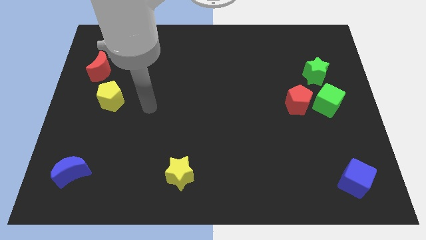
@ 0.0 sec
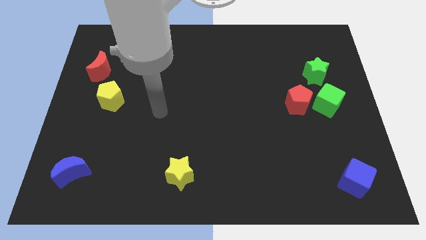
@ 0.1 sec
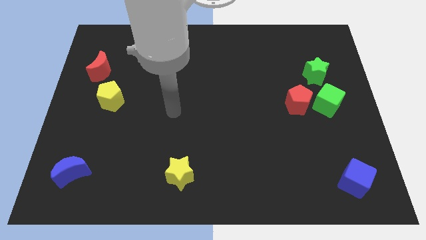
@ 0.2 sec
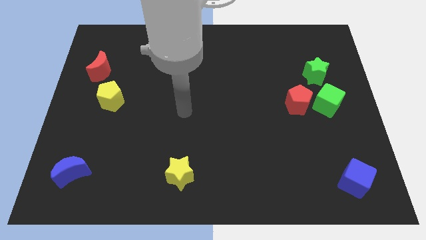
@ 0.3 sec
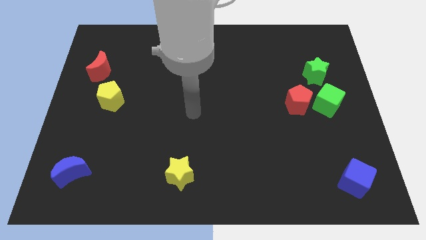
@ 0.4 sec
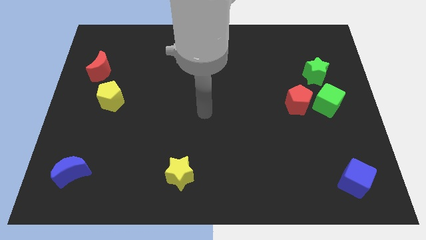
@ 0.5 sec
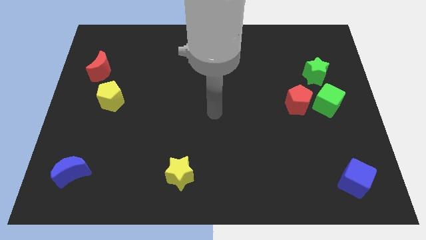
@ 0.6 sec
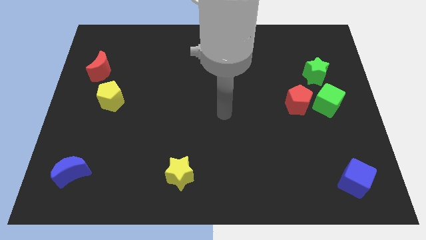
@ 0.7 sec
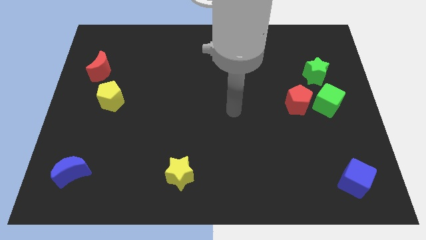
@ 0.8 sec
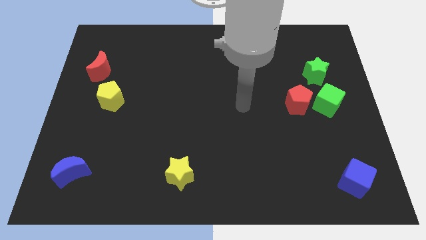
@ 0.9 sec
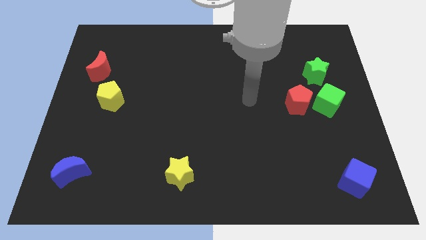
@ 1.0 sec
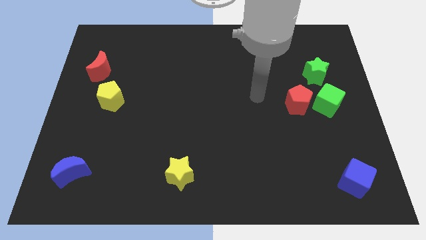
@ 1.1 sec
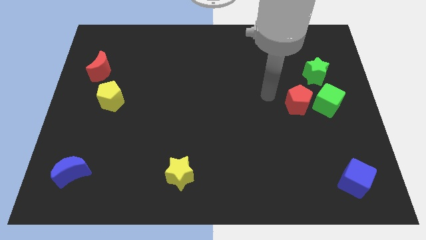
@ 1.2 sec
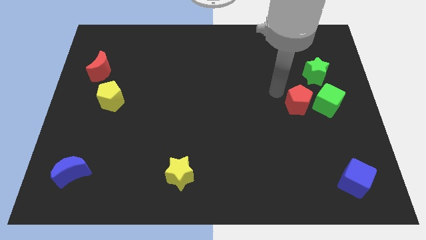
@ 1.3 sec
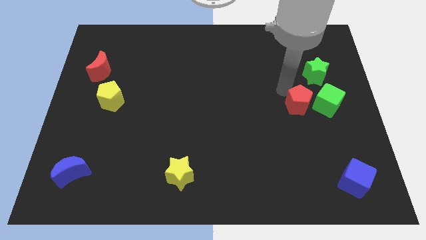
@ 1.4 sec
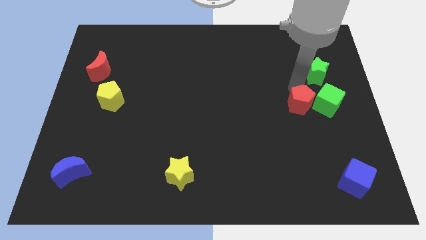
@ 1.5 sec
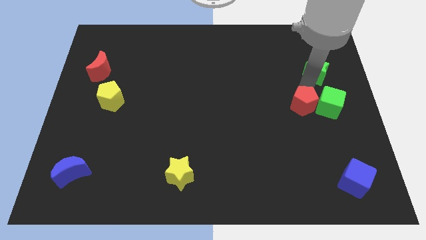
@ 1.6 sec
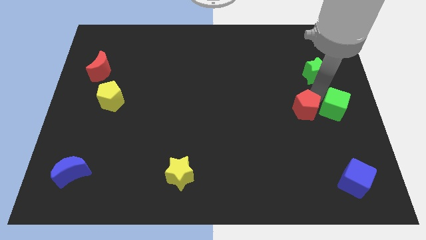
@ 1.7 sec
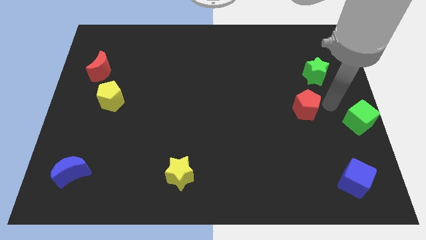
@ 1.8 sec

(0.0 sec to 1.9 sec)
move the red pentagon away from the green cube

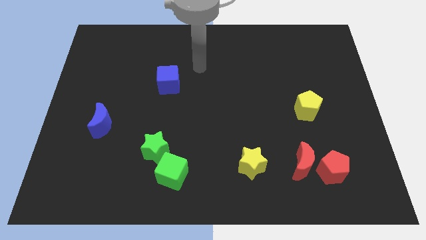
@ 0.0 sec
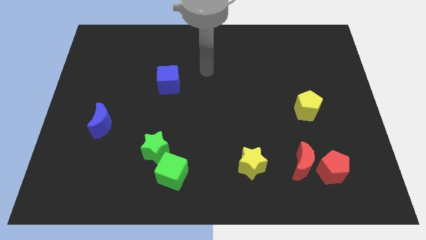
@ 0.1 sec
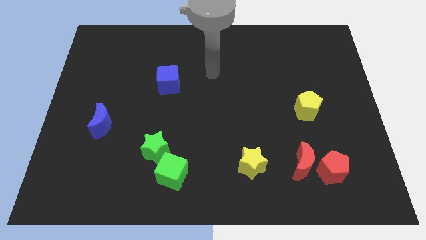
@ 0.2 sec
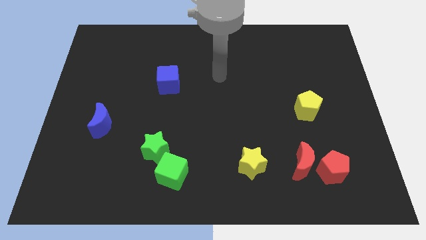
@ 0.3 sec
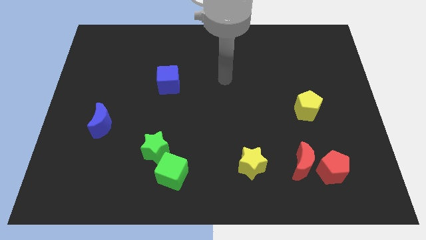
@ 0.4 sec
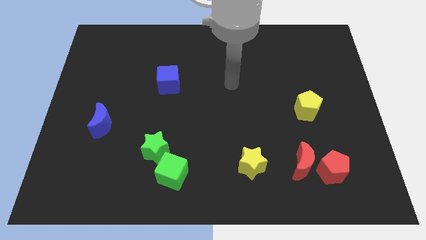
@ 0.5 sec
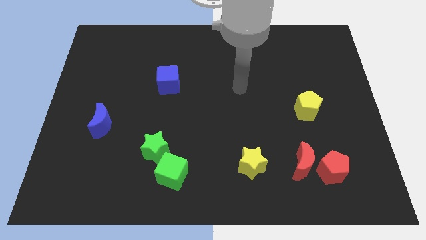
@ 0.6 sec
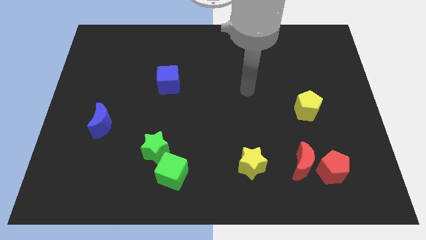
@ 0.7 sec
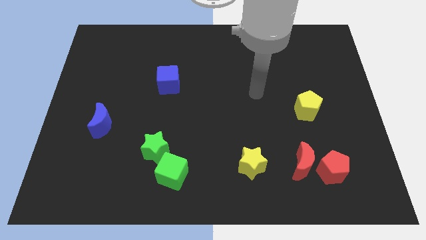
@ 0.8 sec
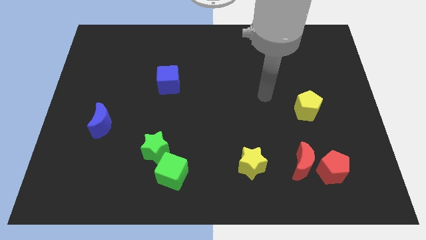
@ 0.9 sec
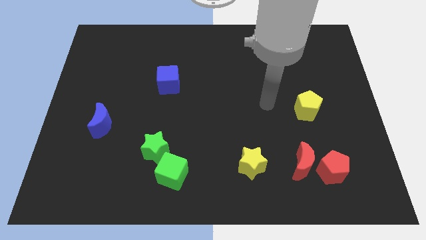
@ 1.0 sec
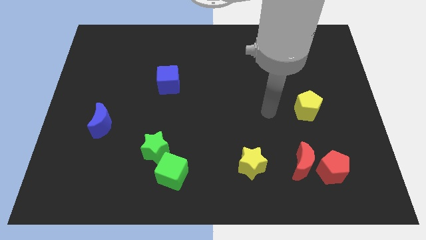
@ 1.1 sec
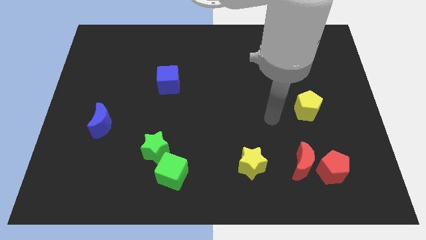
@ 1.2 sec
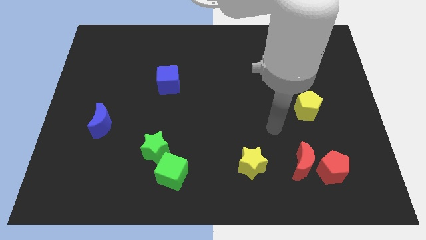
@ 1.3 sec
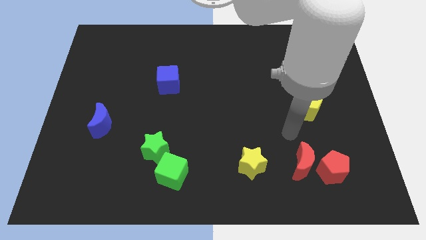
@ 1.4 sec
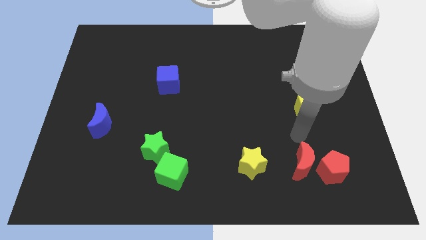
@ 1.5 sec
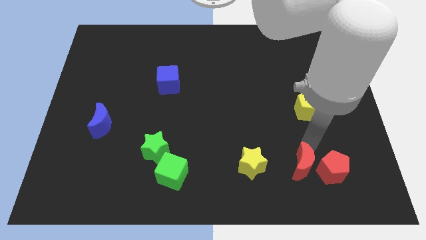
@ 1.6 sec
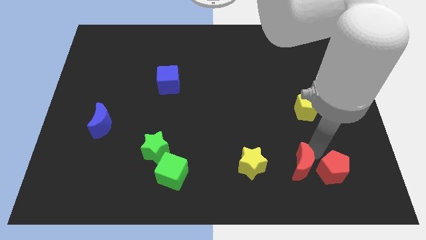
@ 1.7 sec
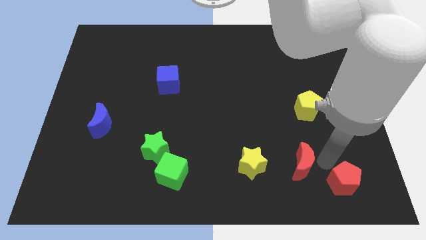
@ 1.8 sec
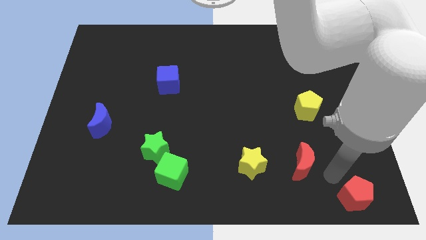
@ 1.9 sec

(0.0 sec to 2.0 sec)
move the red moon away from the red pentagon

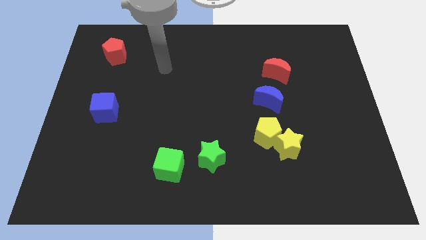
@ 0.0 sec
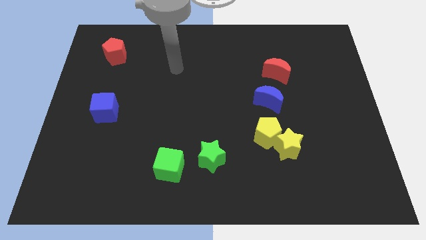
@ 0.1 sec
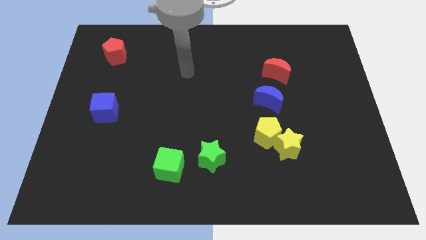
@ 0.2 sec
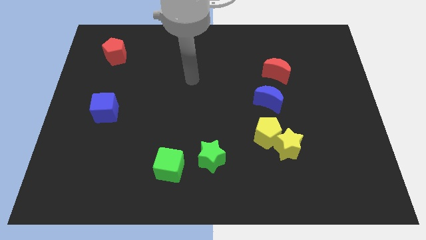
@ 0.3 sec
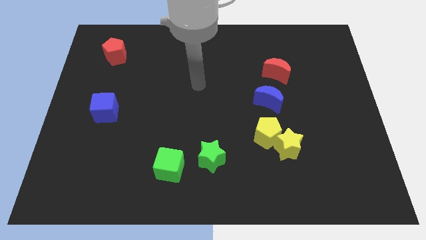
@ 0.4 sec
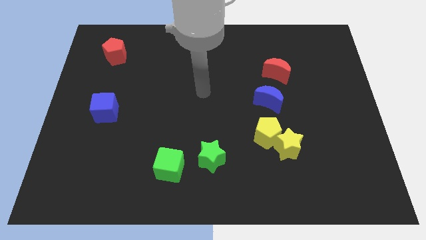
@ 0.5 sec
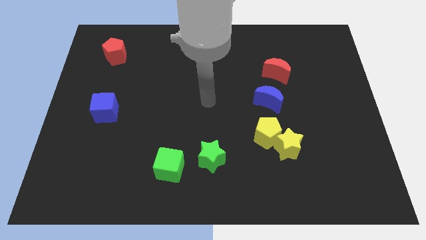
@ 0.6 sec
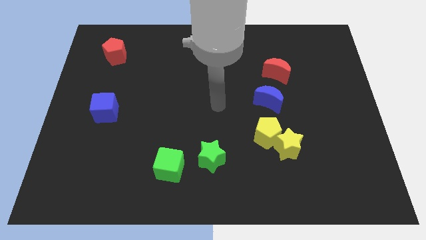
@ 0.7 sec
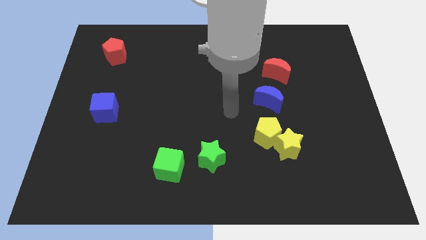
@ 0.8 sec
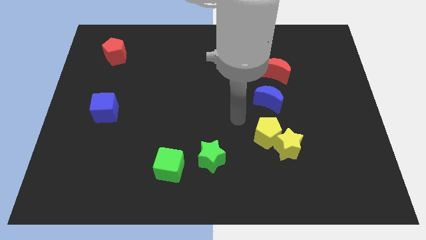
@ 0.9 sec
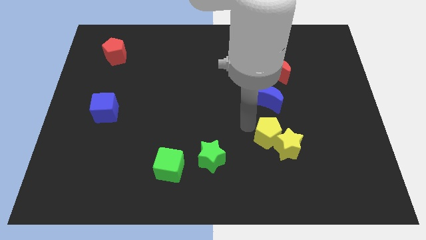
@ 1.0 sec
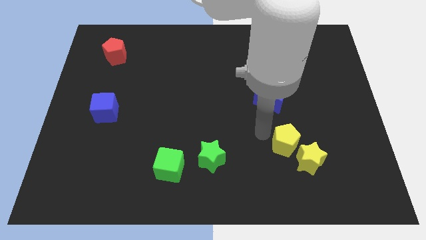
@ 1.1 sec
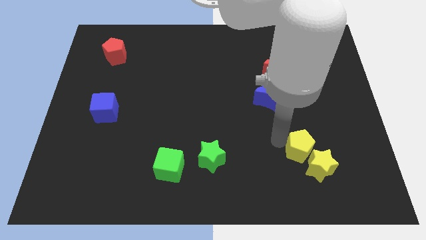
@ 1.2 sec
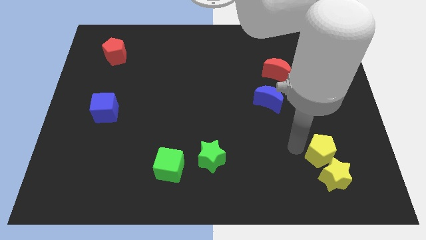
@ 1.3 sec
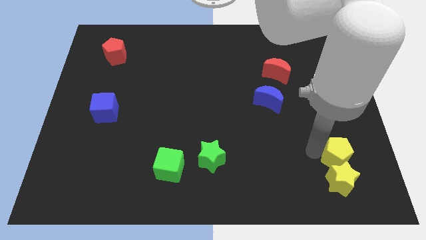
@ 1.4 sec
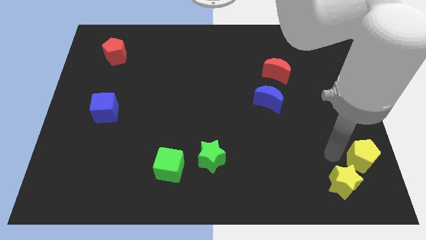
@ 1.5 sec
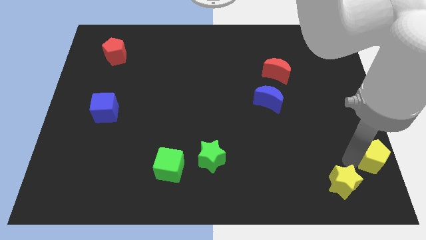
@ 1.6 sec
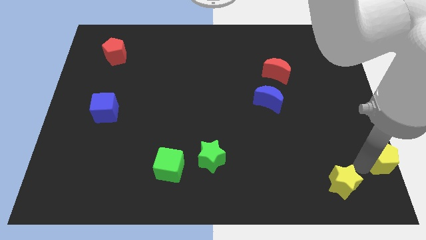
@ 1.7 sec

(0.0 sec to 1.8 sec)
pull the yellow star apart from the yellow pentagon

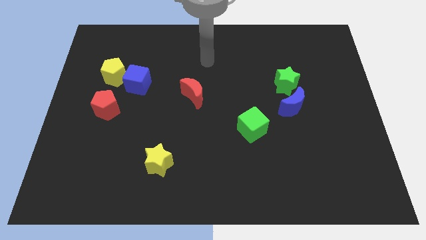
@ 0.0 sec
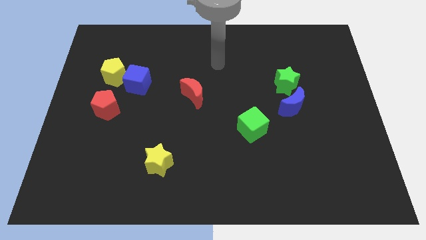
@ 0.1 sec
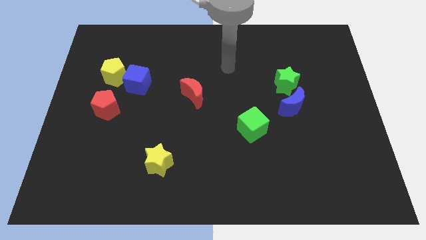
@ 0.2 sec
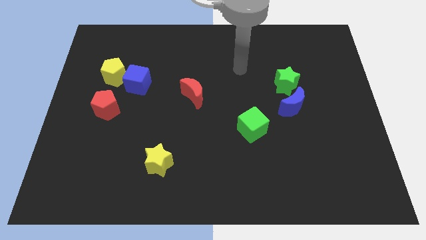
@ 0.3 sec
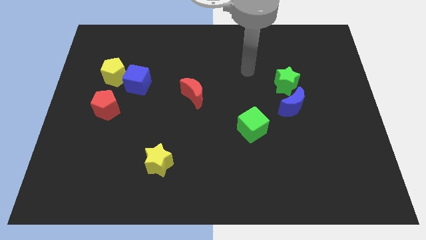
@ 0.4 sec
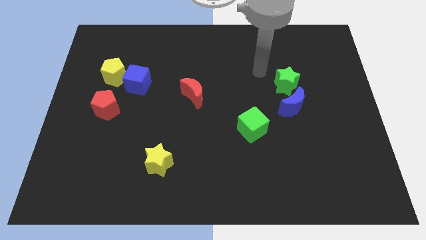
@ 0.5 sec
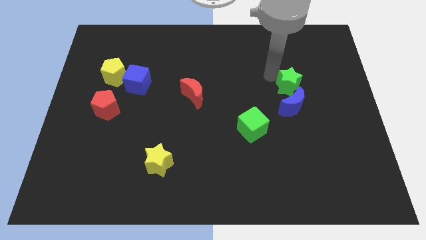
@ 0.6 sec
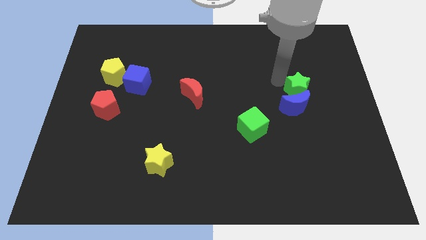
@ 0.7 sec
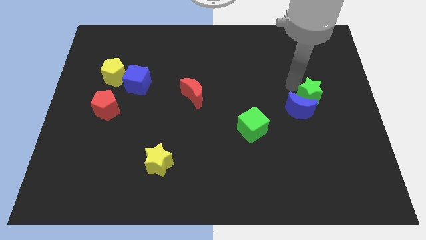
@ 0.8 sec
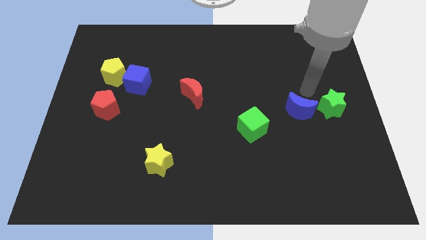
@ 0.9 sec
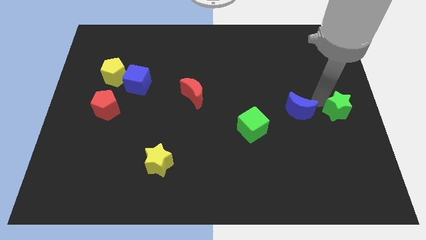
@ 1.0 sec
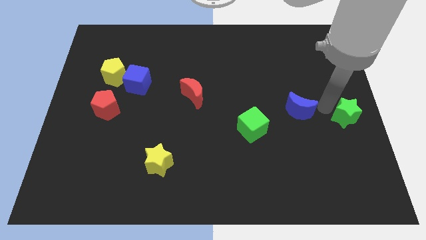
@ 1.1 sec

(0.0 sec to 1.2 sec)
move the blue moon away from the green star

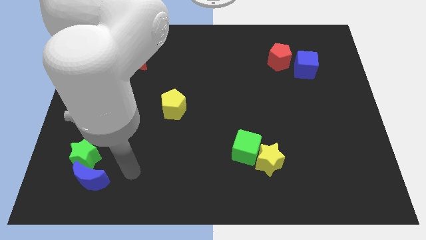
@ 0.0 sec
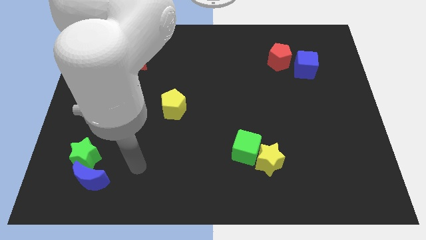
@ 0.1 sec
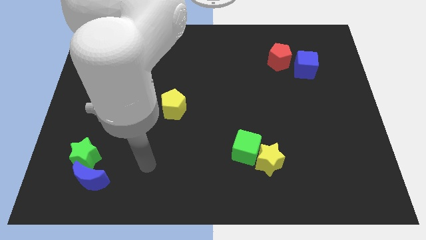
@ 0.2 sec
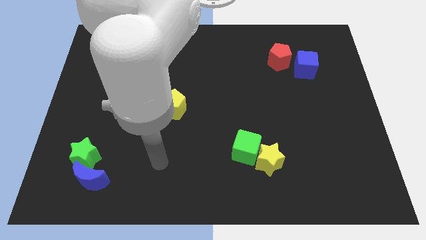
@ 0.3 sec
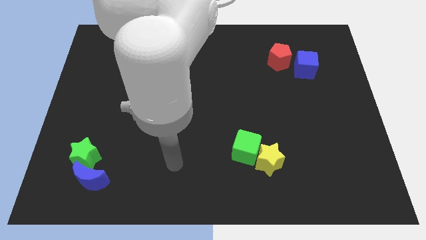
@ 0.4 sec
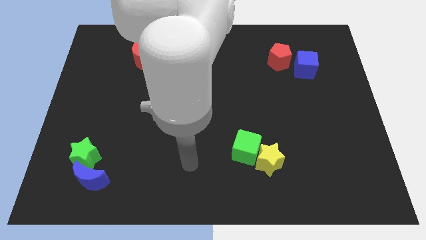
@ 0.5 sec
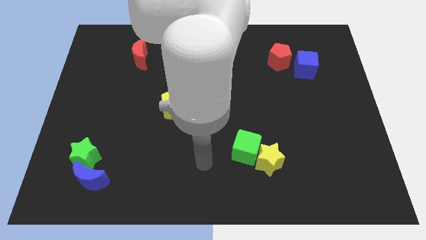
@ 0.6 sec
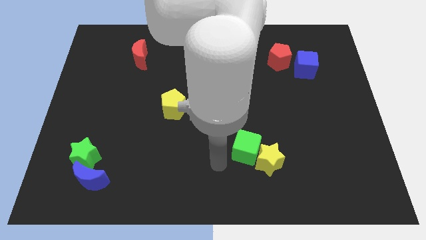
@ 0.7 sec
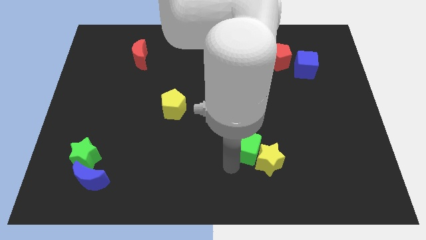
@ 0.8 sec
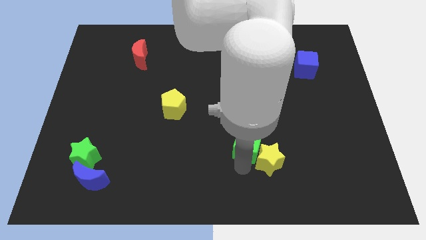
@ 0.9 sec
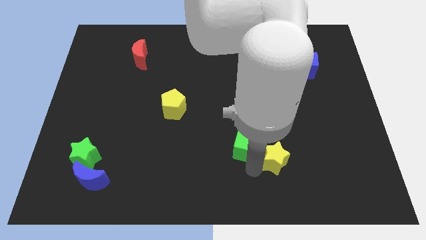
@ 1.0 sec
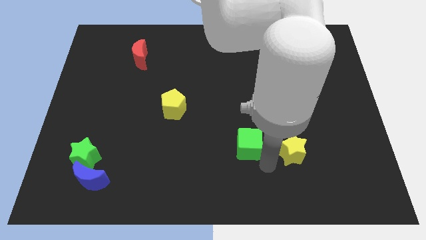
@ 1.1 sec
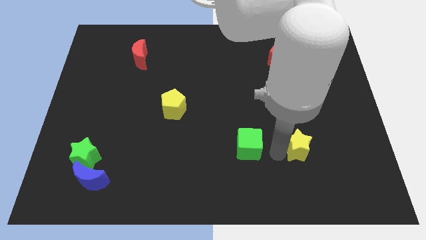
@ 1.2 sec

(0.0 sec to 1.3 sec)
separate the green cube from the yellow star

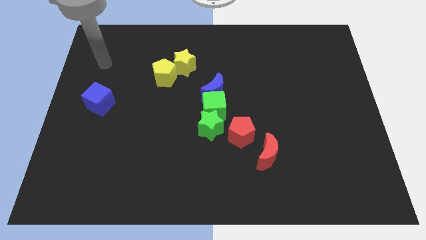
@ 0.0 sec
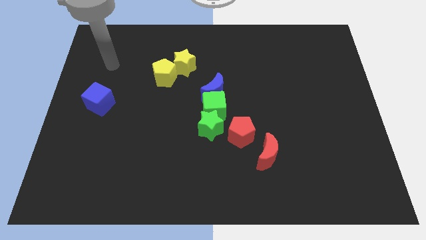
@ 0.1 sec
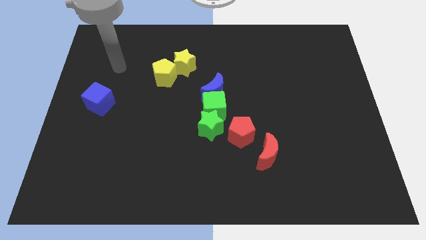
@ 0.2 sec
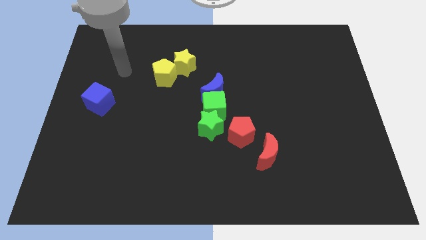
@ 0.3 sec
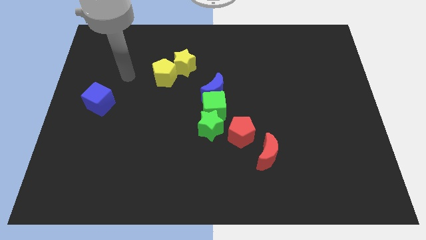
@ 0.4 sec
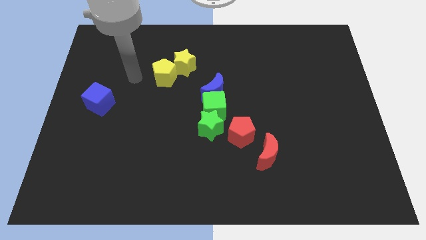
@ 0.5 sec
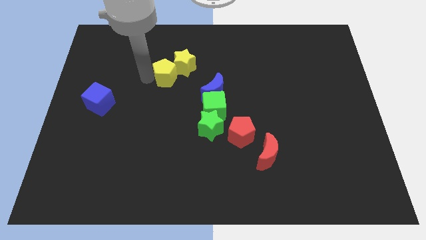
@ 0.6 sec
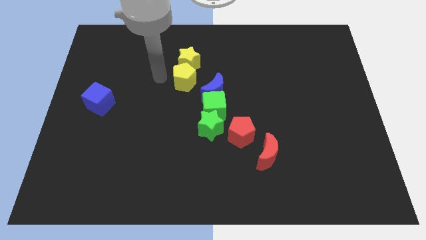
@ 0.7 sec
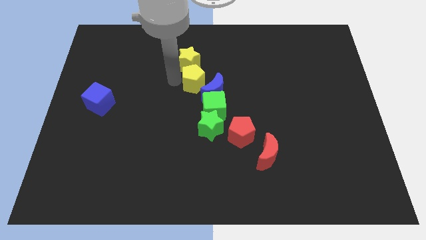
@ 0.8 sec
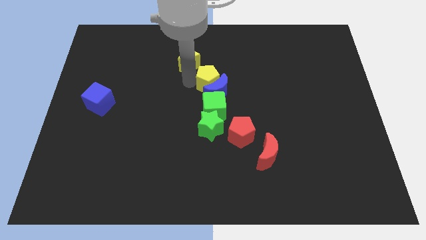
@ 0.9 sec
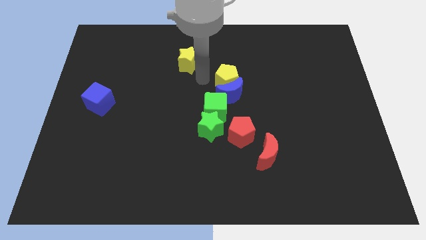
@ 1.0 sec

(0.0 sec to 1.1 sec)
move the yellow star away from the yellow pentagon
